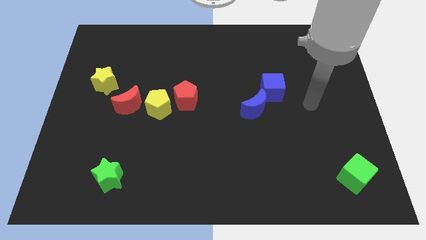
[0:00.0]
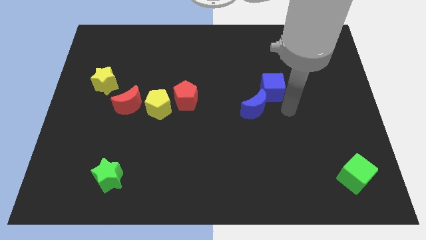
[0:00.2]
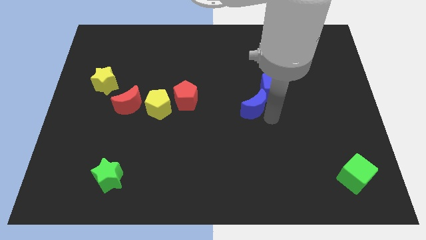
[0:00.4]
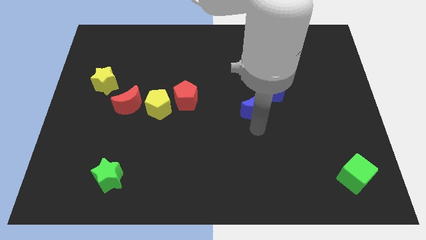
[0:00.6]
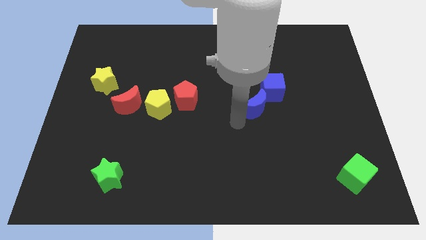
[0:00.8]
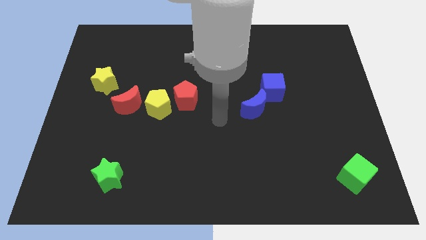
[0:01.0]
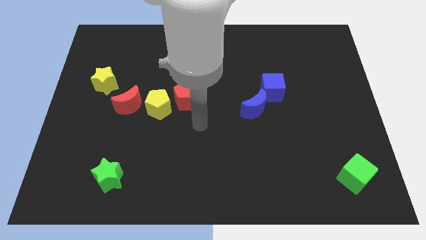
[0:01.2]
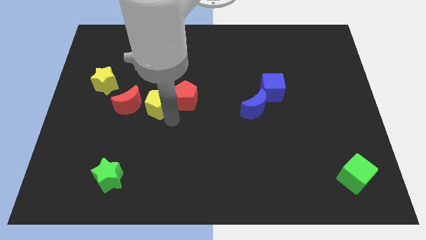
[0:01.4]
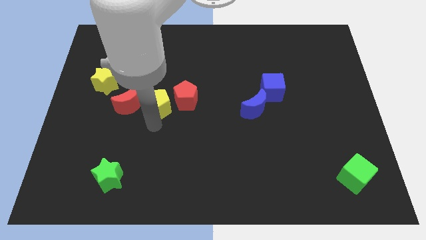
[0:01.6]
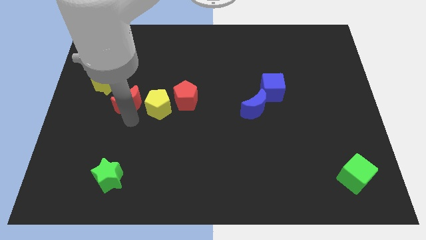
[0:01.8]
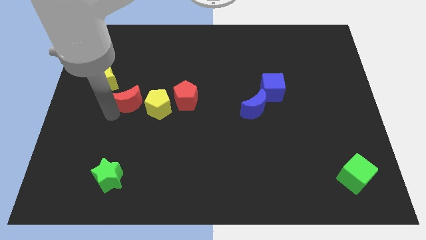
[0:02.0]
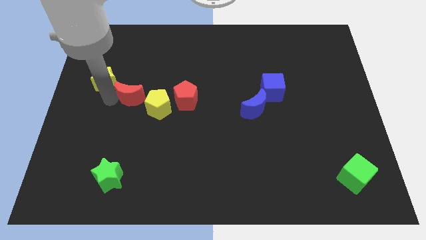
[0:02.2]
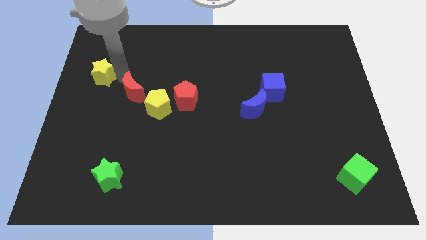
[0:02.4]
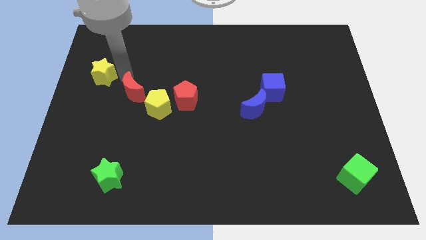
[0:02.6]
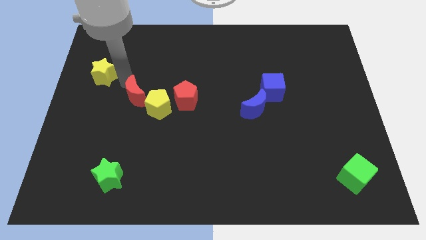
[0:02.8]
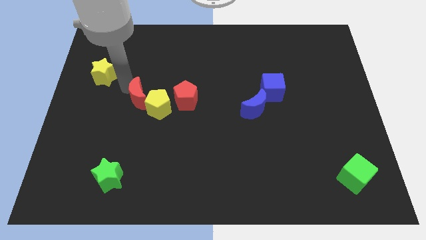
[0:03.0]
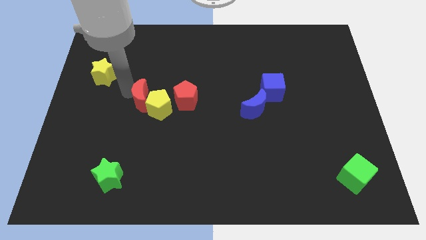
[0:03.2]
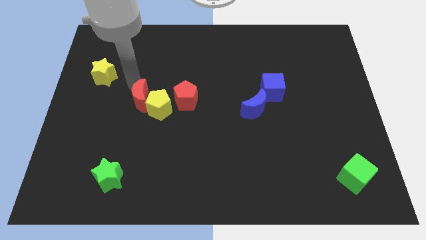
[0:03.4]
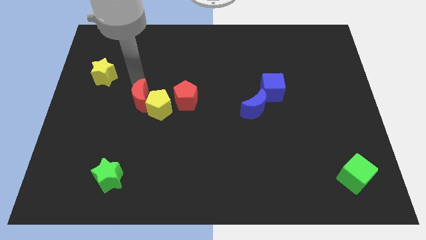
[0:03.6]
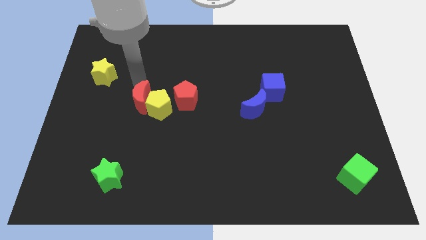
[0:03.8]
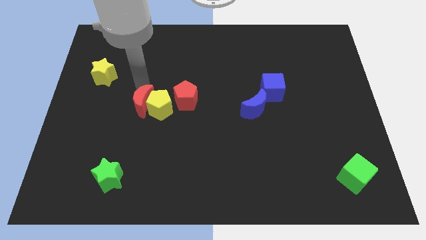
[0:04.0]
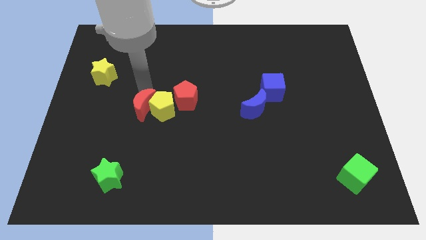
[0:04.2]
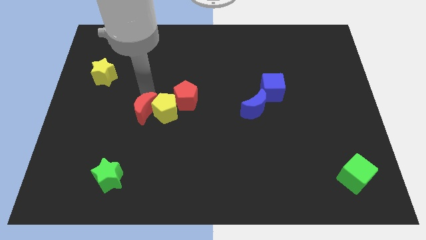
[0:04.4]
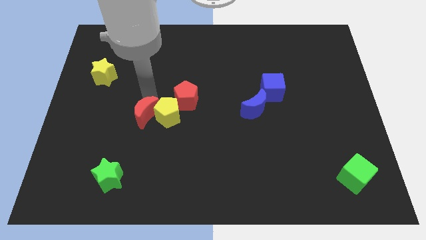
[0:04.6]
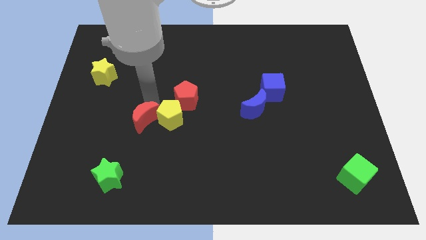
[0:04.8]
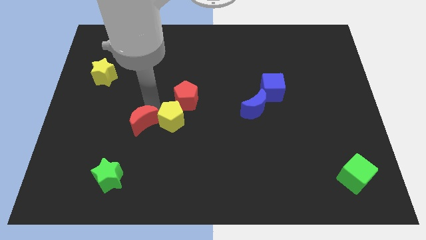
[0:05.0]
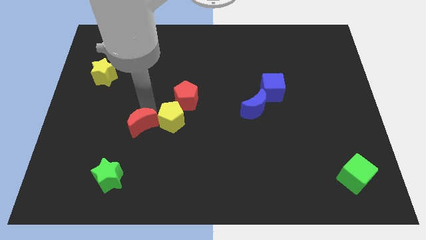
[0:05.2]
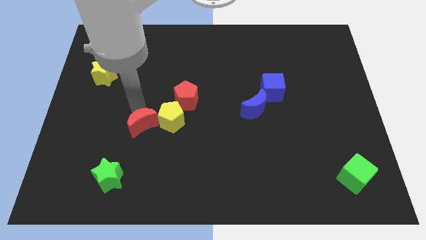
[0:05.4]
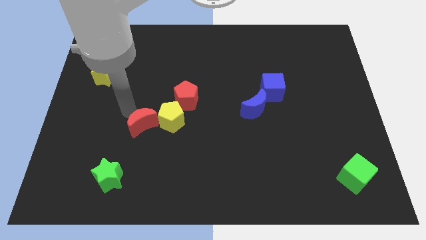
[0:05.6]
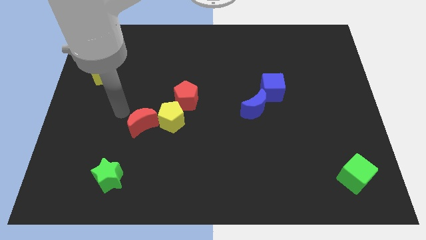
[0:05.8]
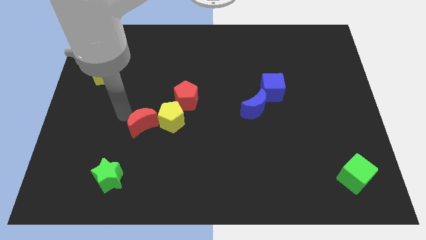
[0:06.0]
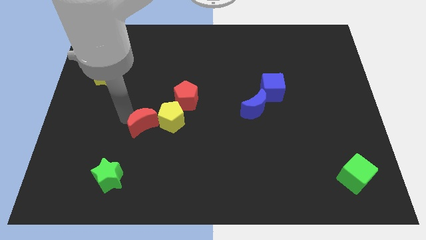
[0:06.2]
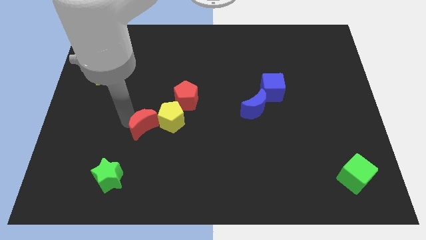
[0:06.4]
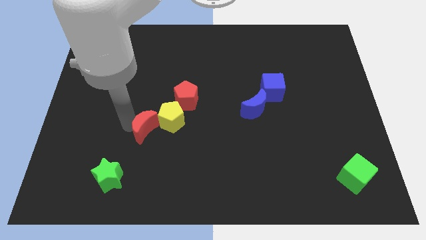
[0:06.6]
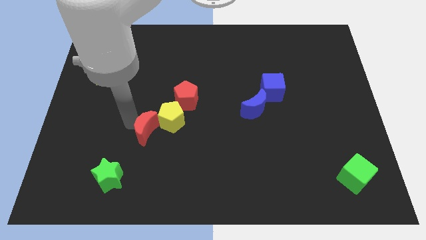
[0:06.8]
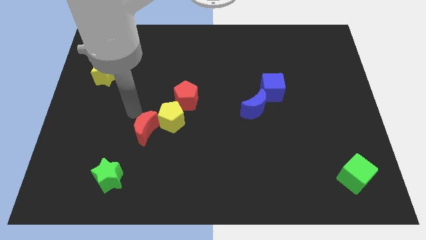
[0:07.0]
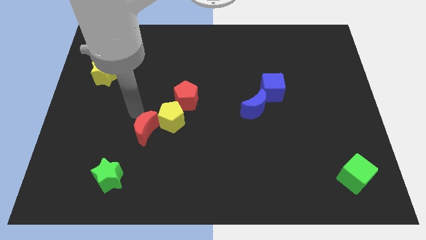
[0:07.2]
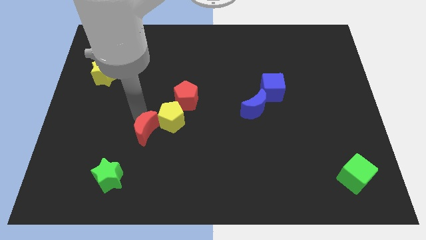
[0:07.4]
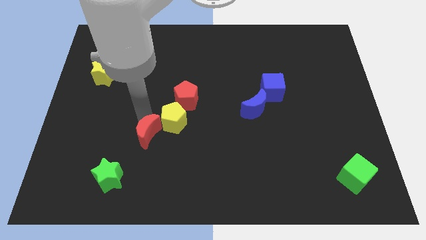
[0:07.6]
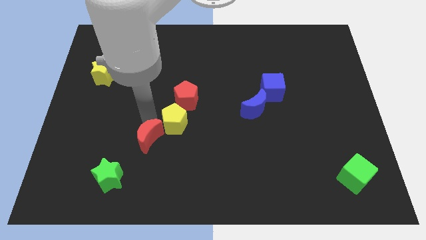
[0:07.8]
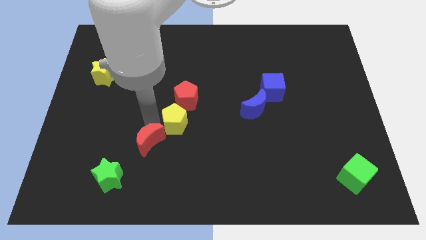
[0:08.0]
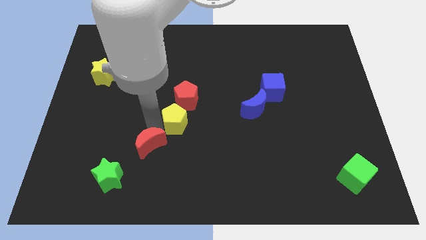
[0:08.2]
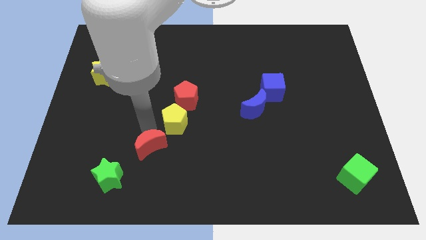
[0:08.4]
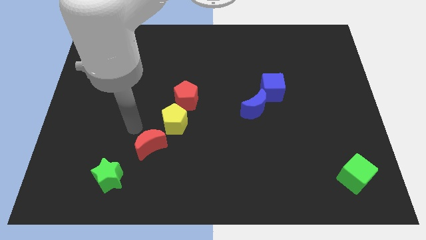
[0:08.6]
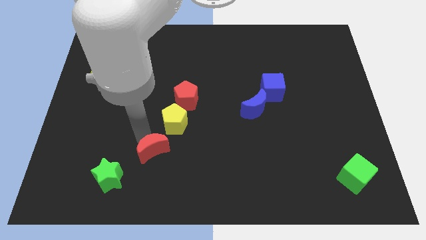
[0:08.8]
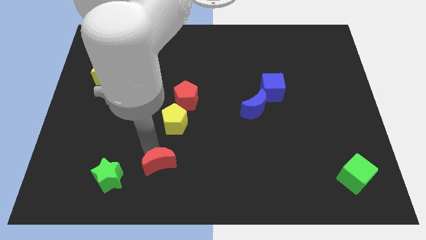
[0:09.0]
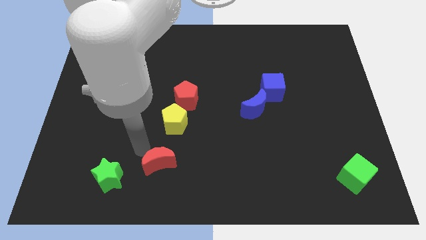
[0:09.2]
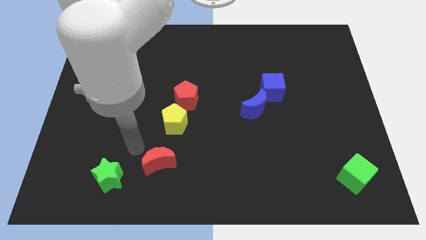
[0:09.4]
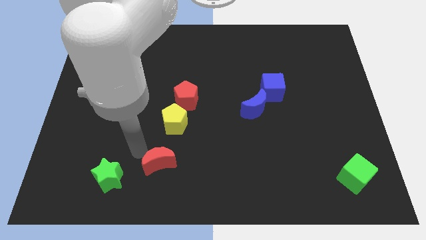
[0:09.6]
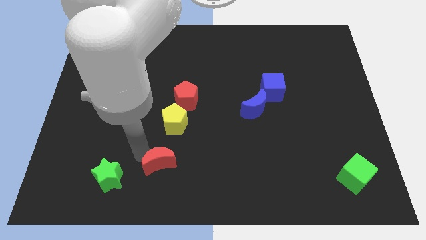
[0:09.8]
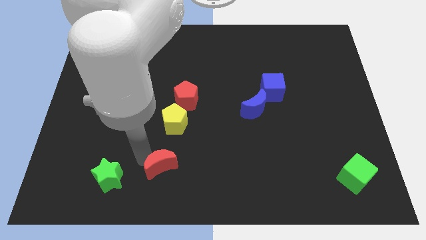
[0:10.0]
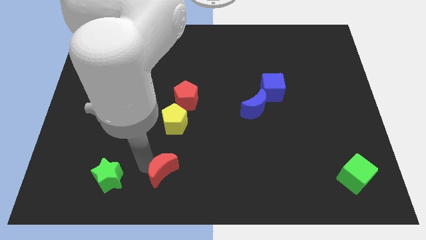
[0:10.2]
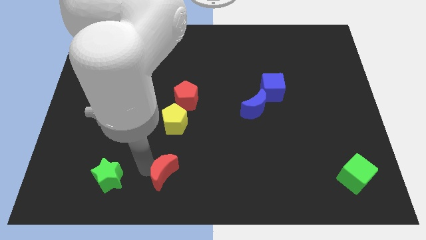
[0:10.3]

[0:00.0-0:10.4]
move the red moon to the bottom

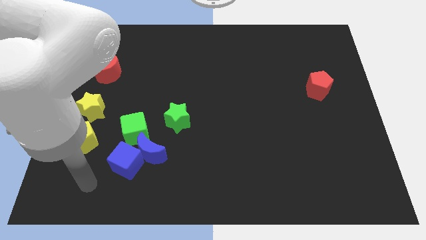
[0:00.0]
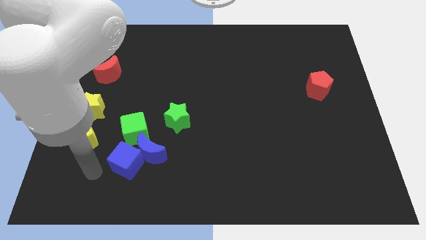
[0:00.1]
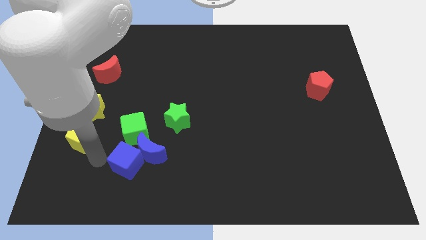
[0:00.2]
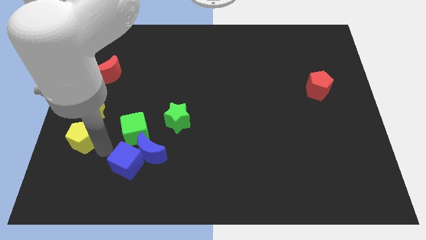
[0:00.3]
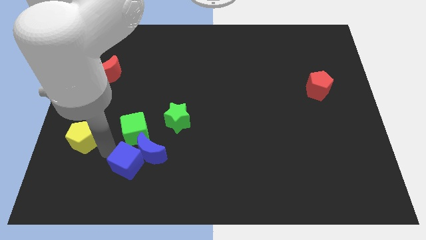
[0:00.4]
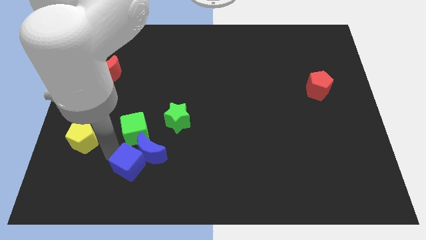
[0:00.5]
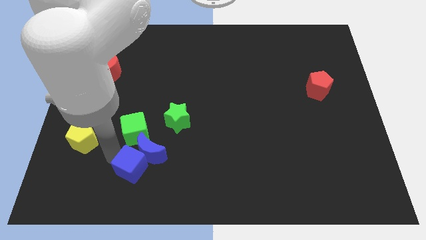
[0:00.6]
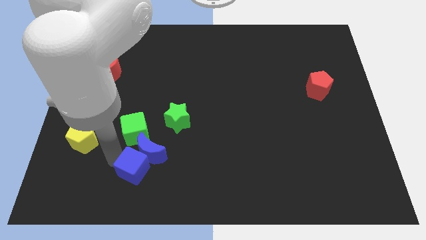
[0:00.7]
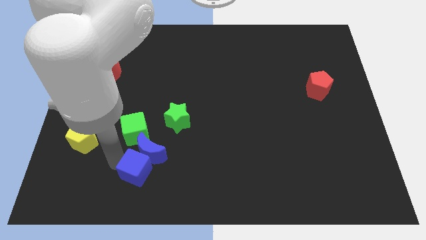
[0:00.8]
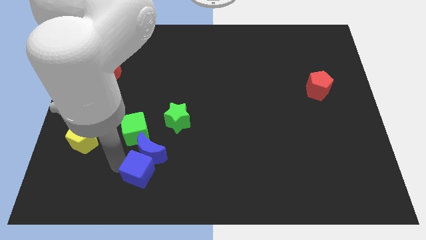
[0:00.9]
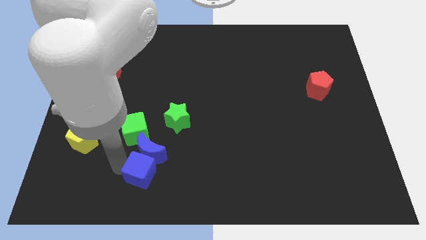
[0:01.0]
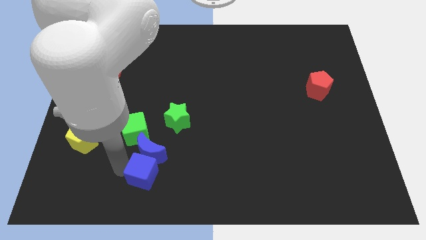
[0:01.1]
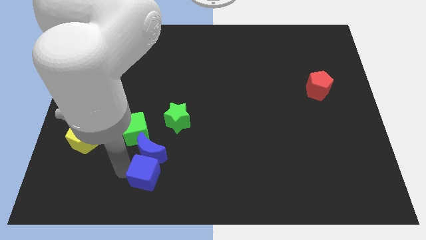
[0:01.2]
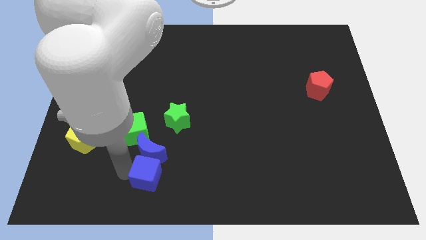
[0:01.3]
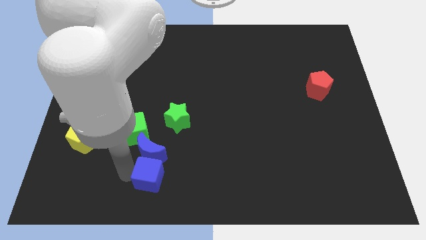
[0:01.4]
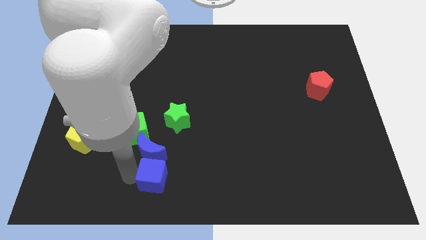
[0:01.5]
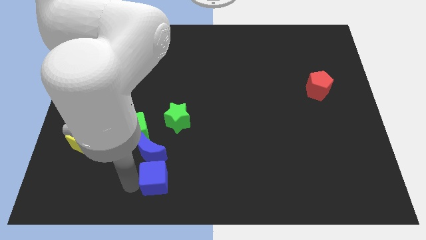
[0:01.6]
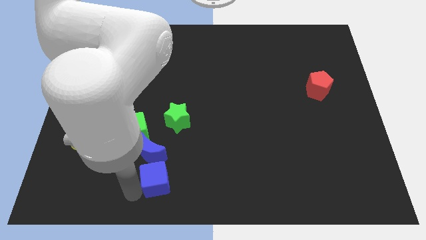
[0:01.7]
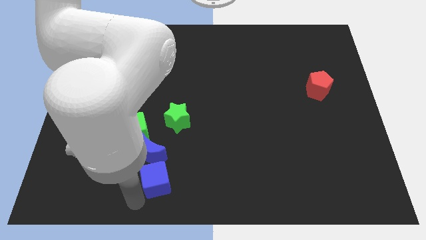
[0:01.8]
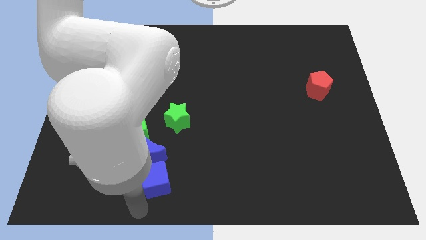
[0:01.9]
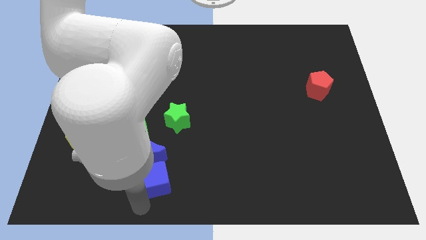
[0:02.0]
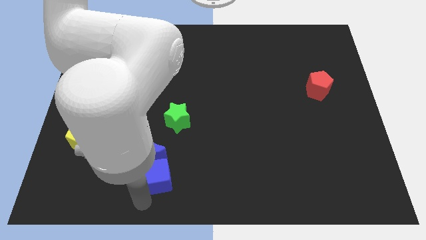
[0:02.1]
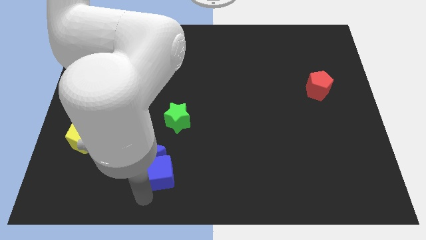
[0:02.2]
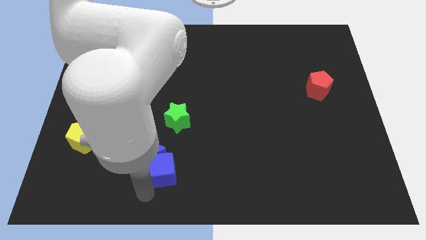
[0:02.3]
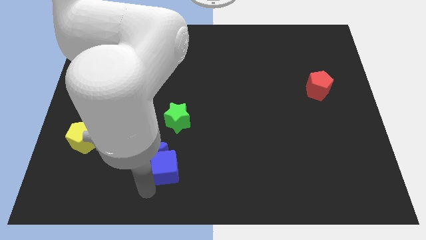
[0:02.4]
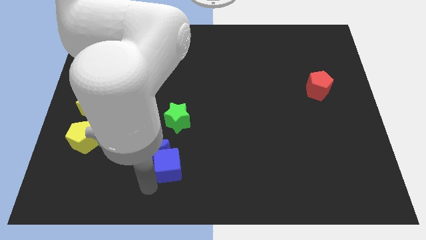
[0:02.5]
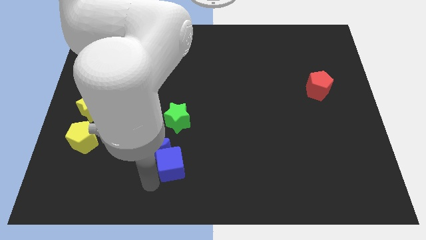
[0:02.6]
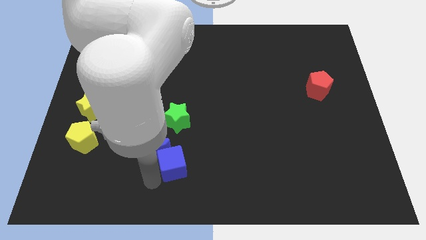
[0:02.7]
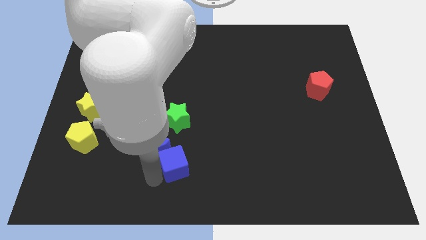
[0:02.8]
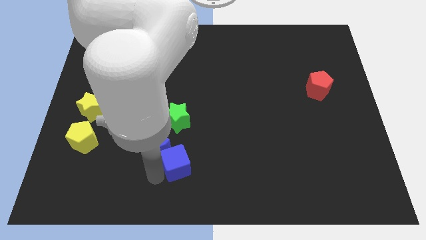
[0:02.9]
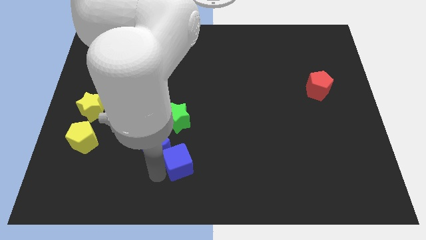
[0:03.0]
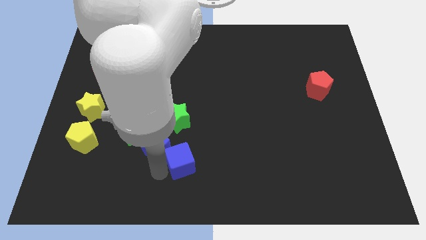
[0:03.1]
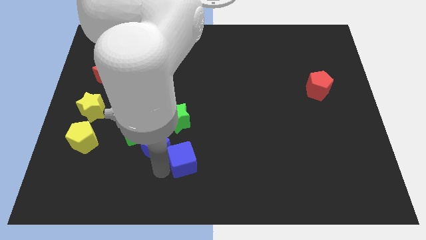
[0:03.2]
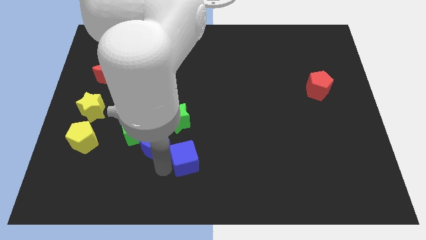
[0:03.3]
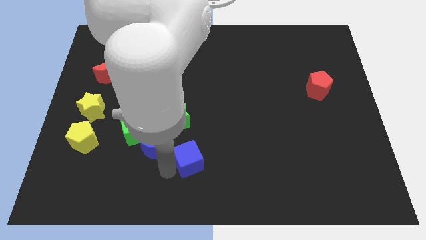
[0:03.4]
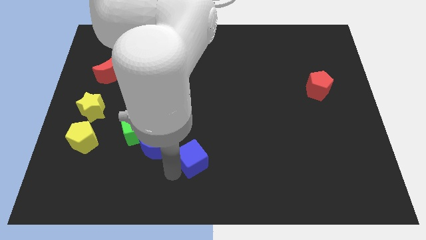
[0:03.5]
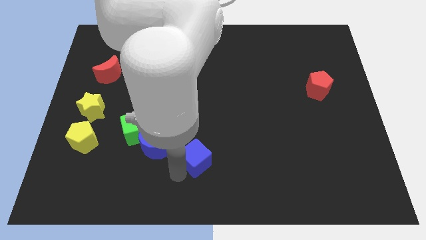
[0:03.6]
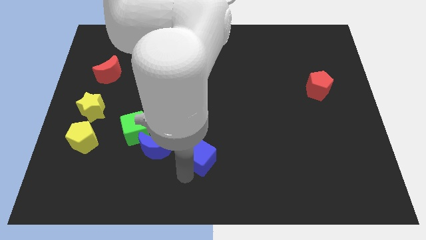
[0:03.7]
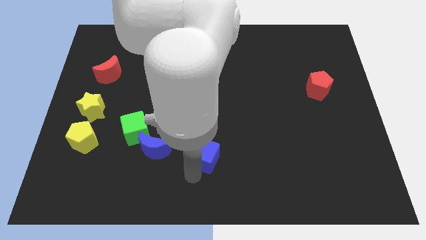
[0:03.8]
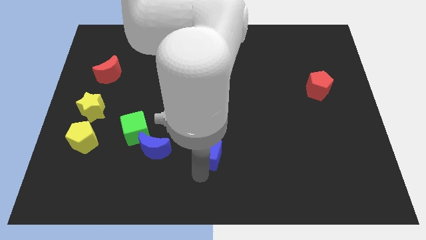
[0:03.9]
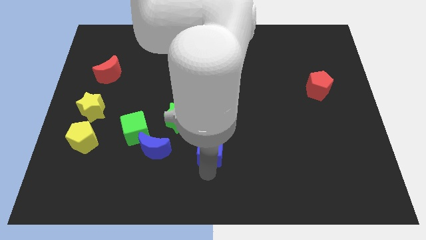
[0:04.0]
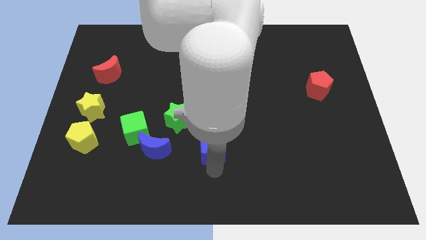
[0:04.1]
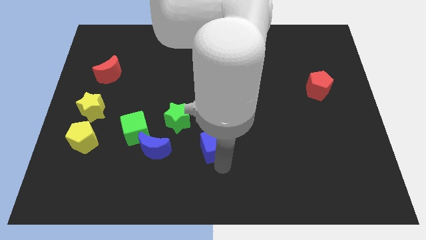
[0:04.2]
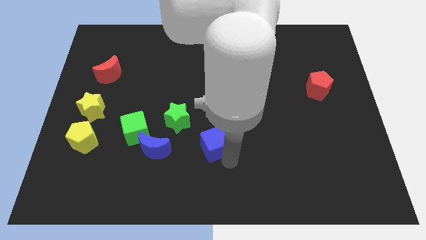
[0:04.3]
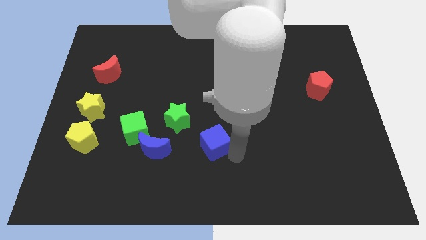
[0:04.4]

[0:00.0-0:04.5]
push the blue cube to the center of the board
